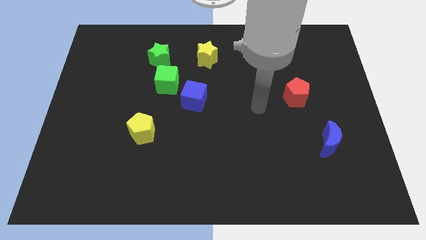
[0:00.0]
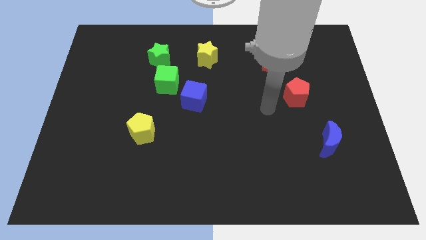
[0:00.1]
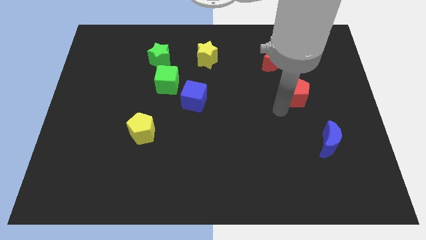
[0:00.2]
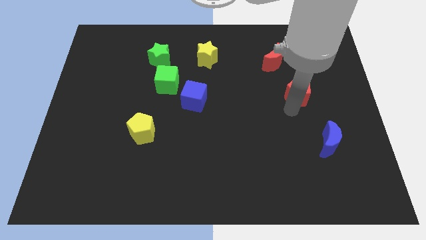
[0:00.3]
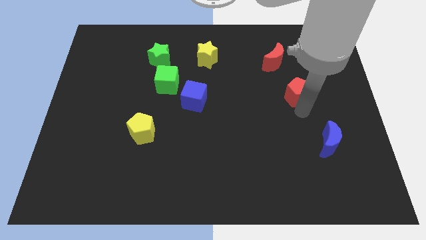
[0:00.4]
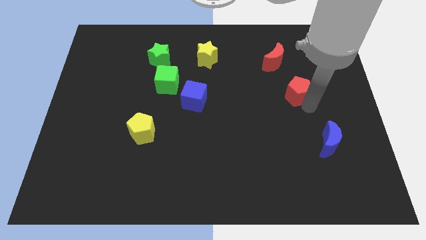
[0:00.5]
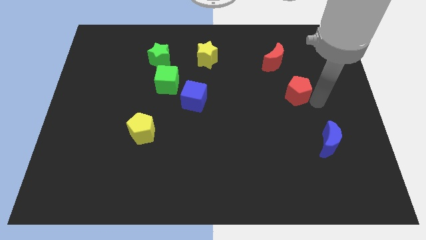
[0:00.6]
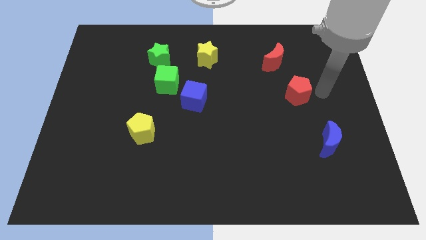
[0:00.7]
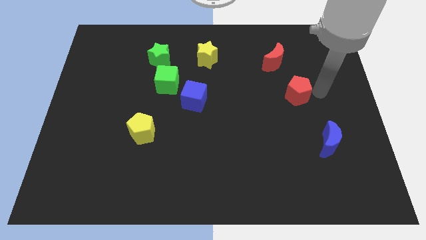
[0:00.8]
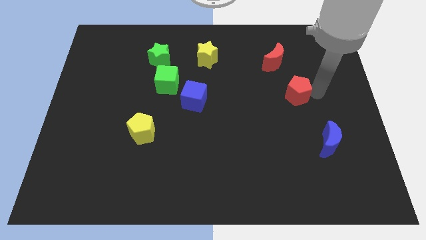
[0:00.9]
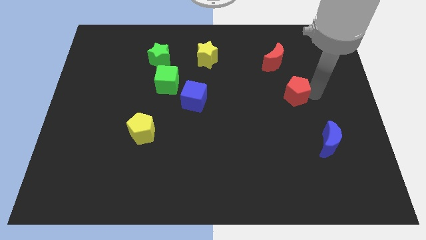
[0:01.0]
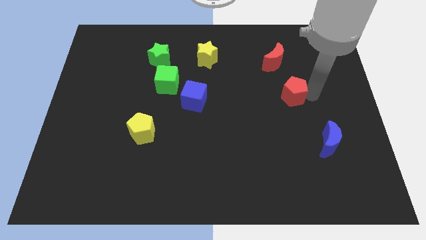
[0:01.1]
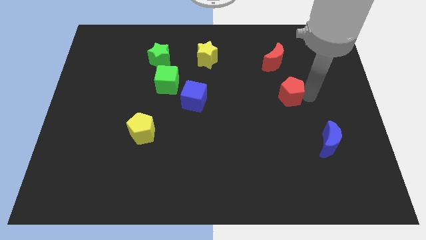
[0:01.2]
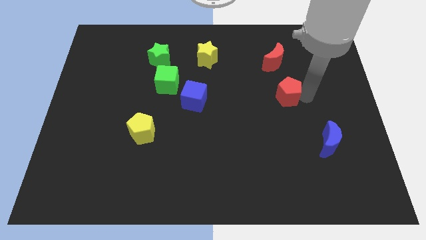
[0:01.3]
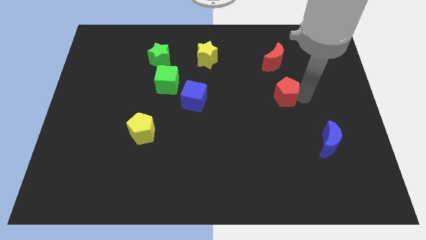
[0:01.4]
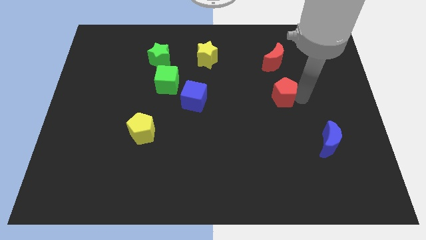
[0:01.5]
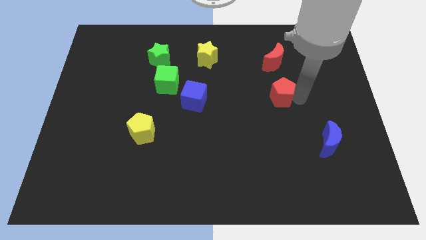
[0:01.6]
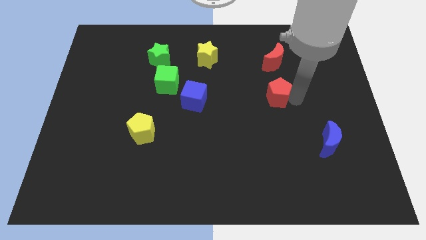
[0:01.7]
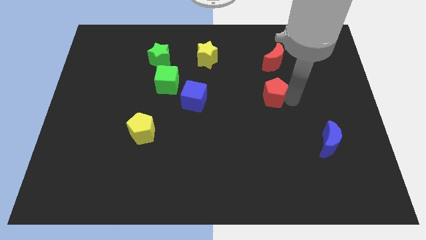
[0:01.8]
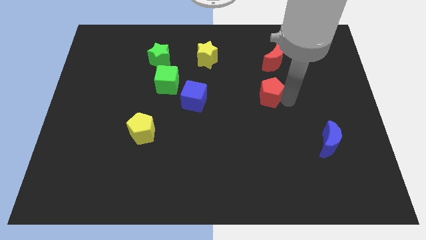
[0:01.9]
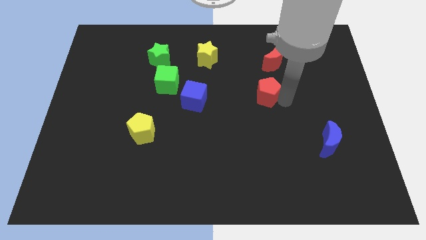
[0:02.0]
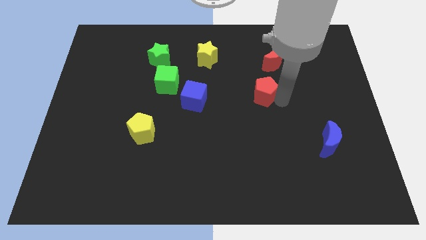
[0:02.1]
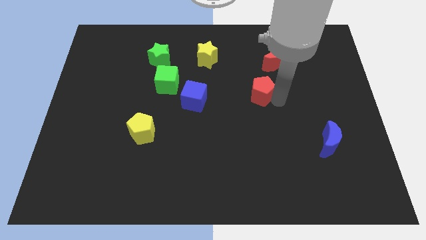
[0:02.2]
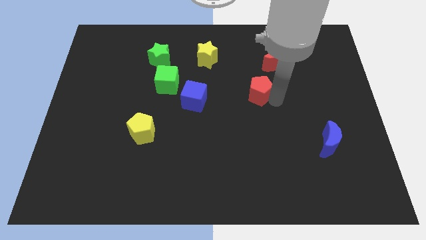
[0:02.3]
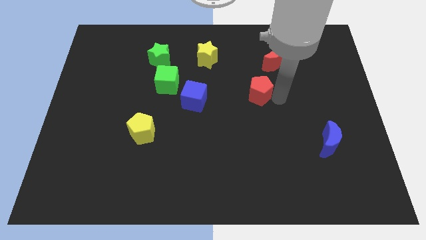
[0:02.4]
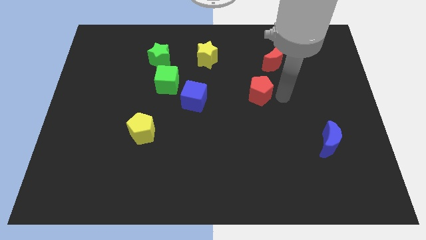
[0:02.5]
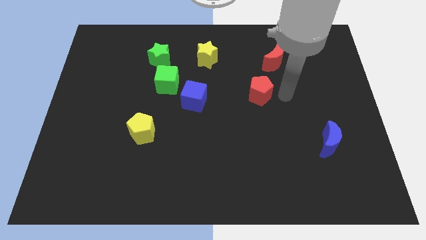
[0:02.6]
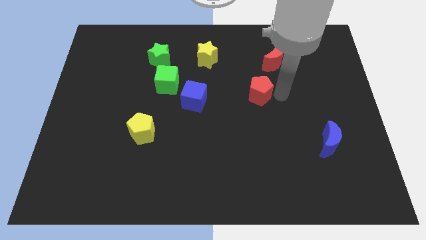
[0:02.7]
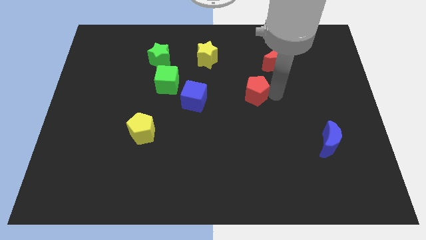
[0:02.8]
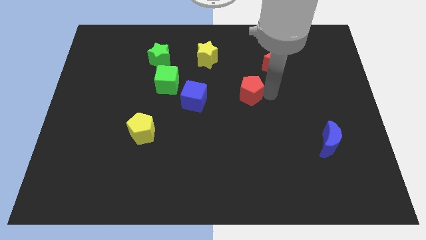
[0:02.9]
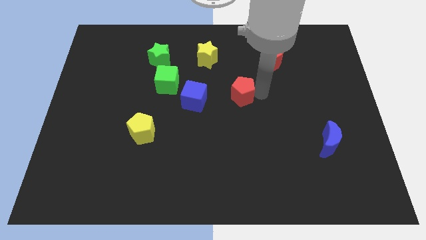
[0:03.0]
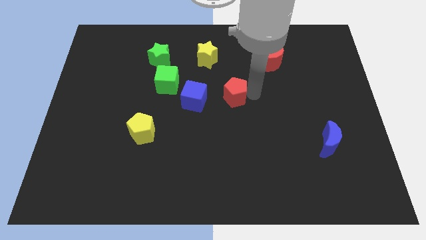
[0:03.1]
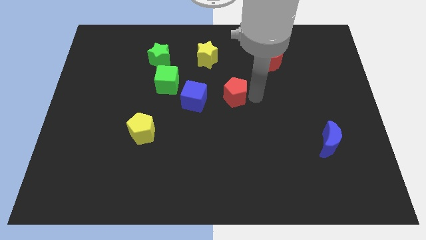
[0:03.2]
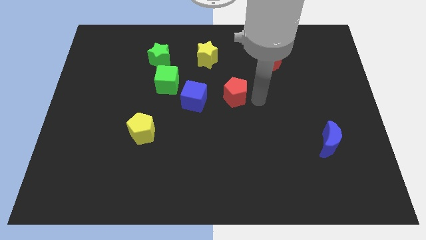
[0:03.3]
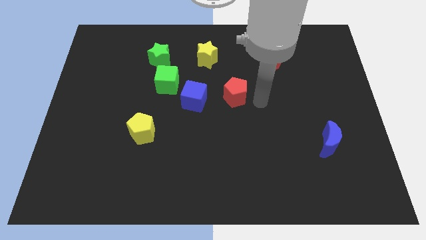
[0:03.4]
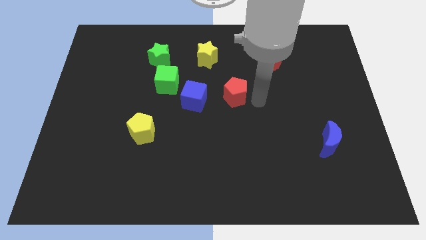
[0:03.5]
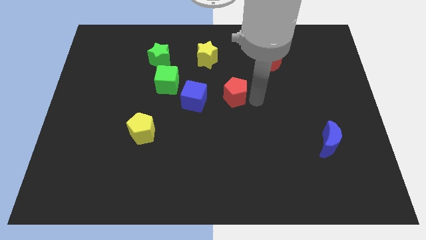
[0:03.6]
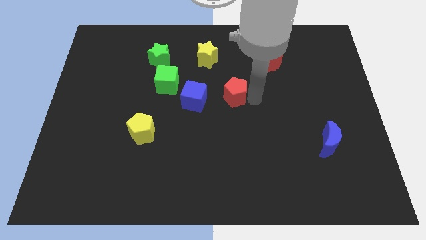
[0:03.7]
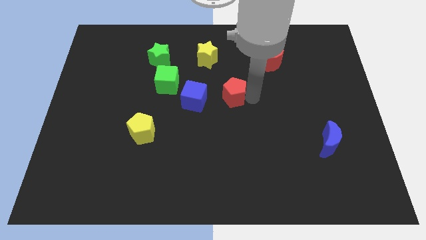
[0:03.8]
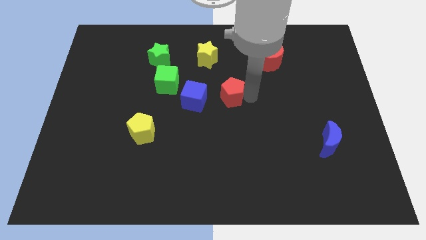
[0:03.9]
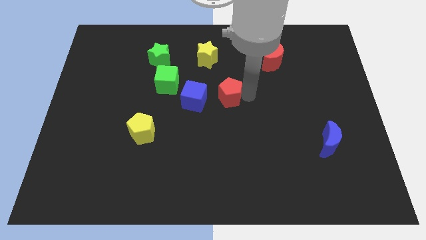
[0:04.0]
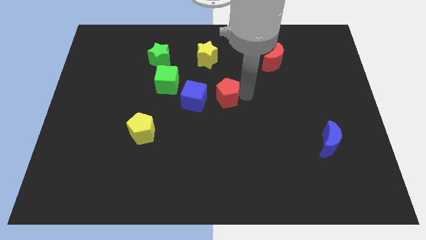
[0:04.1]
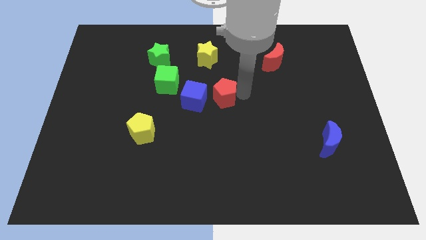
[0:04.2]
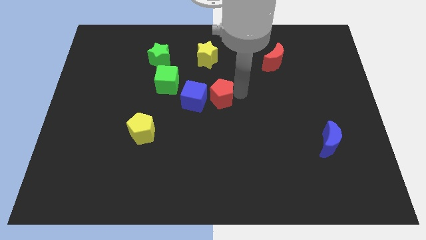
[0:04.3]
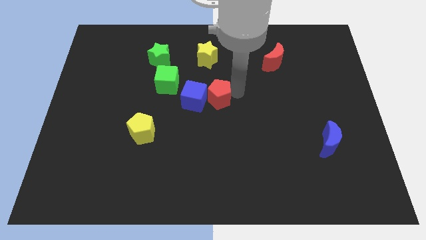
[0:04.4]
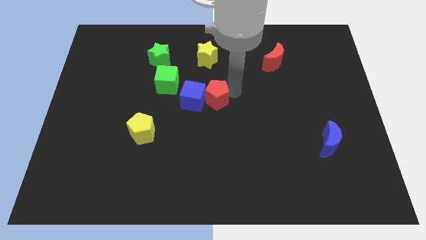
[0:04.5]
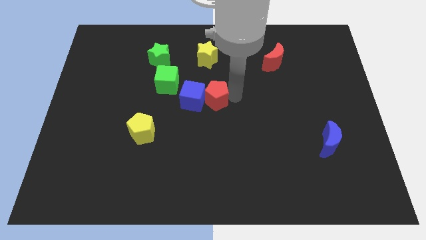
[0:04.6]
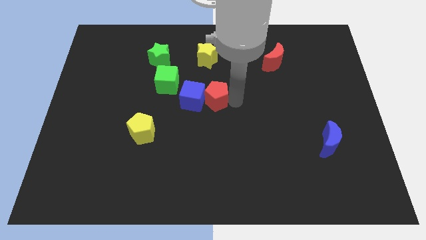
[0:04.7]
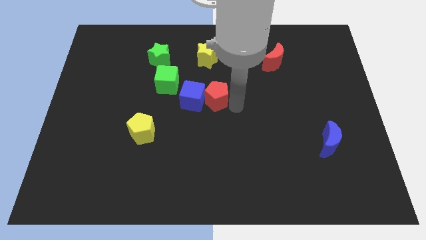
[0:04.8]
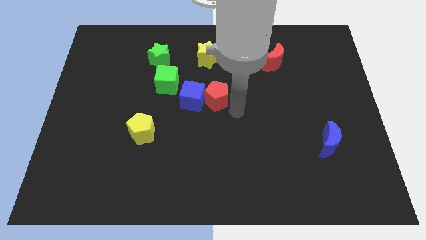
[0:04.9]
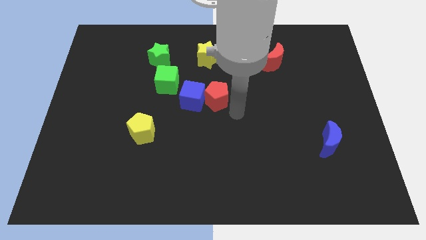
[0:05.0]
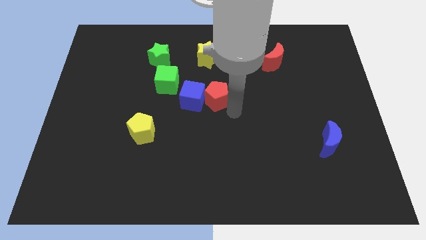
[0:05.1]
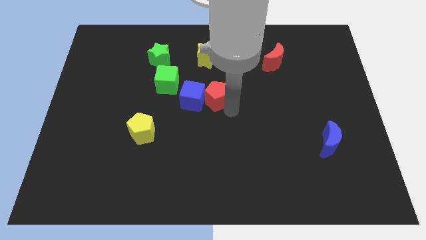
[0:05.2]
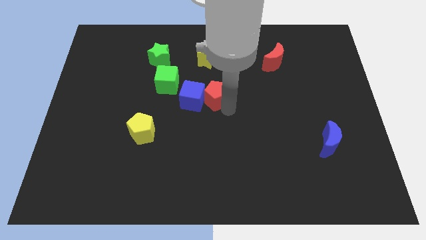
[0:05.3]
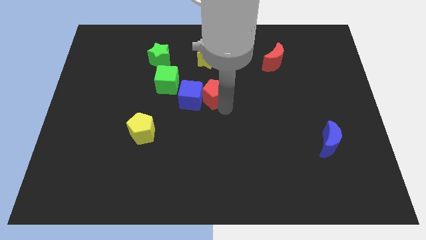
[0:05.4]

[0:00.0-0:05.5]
move the red pentagon to the left

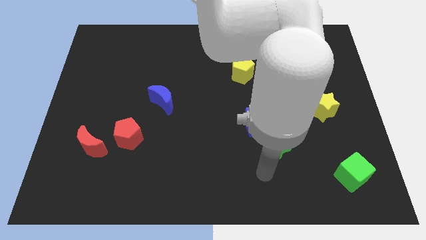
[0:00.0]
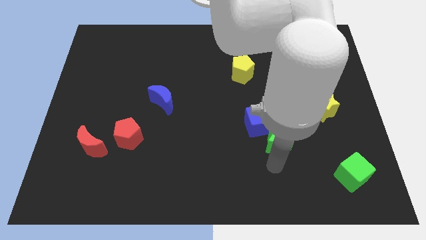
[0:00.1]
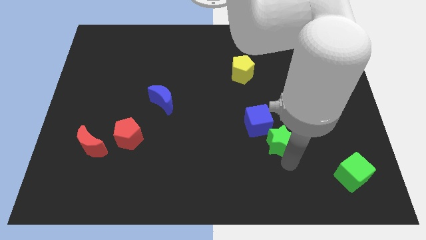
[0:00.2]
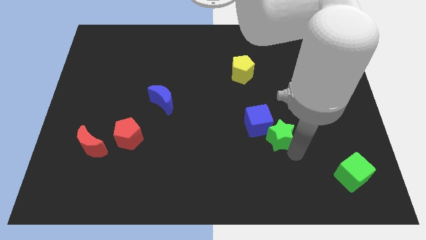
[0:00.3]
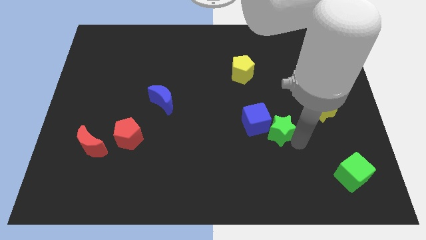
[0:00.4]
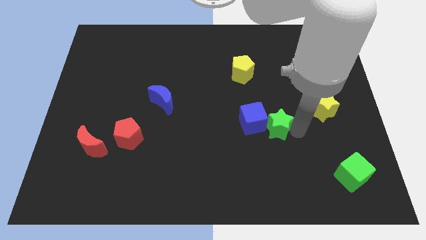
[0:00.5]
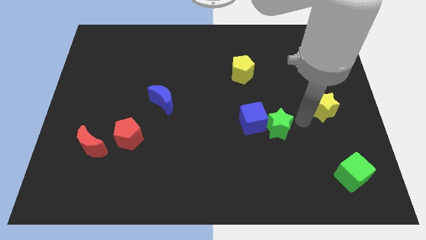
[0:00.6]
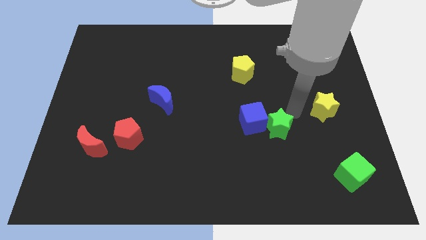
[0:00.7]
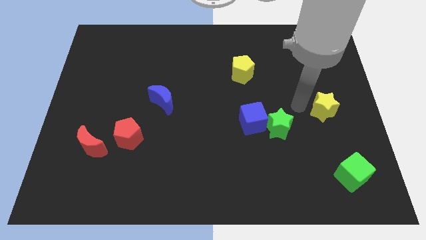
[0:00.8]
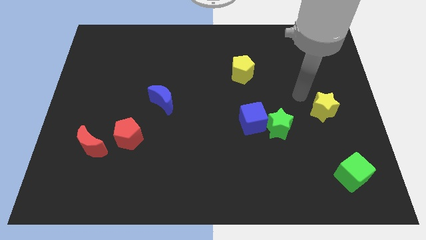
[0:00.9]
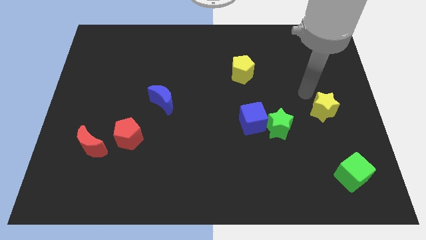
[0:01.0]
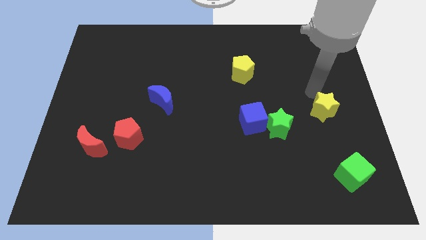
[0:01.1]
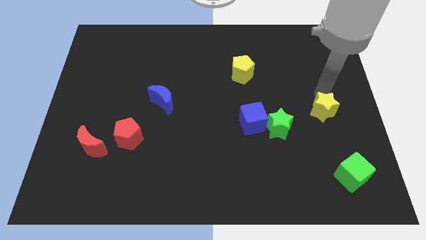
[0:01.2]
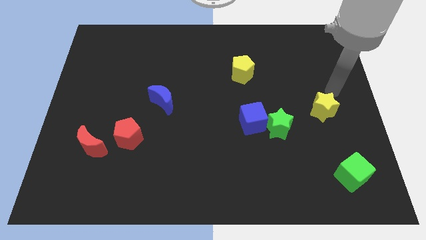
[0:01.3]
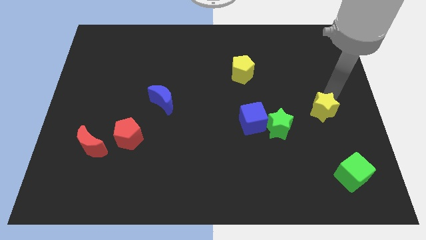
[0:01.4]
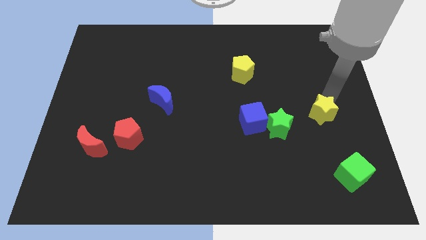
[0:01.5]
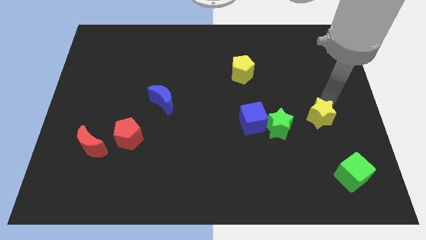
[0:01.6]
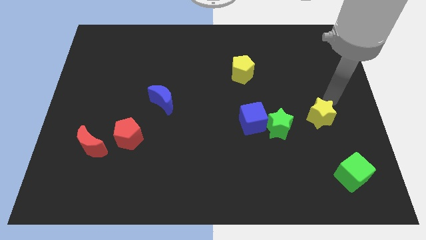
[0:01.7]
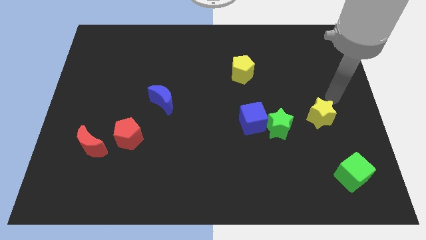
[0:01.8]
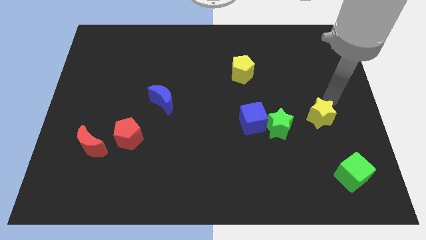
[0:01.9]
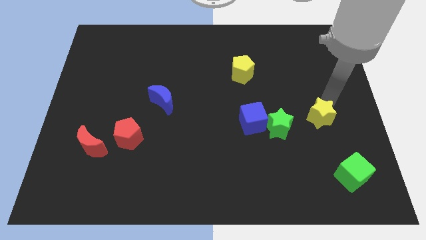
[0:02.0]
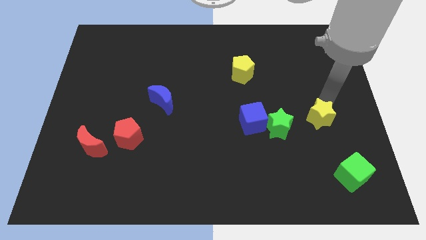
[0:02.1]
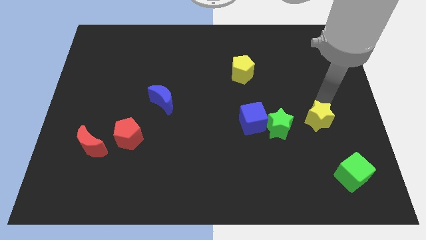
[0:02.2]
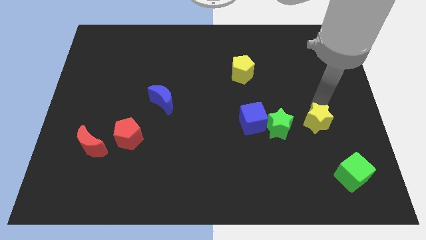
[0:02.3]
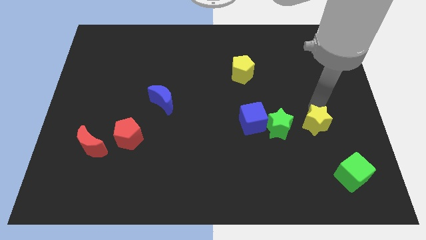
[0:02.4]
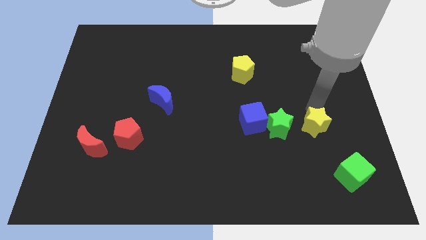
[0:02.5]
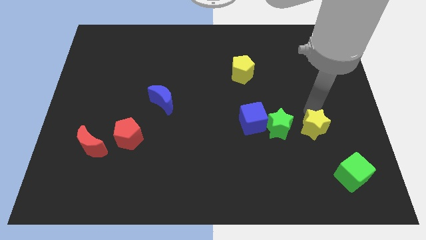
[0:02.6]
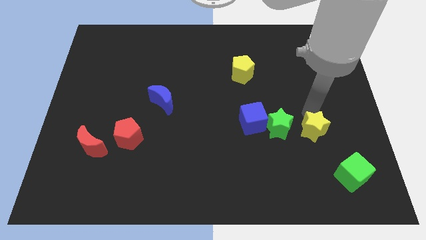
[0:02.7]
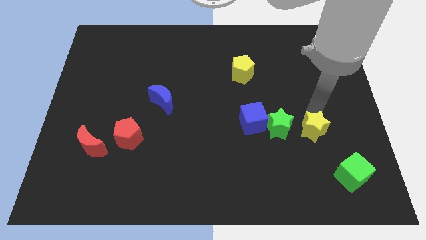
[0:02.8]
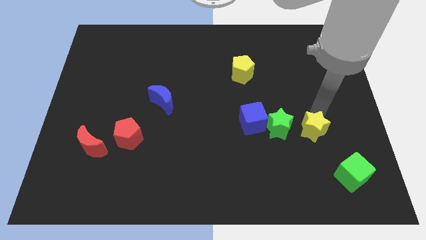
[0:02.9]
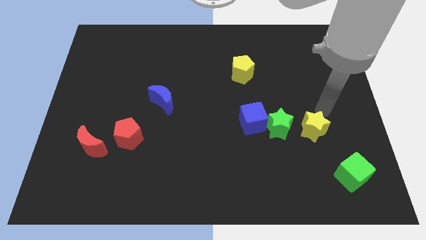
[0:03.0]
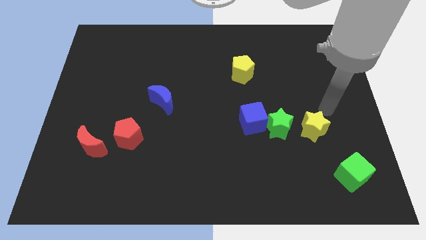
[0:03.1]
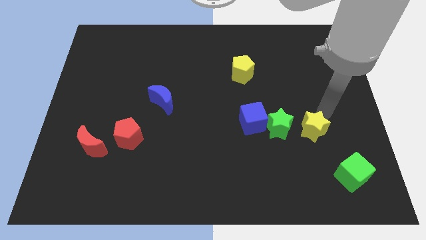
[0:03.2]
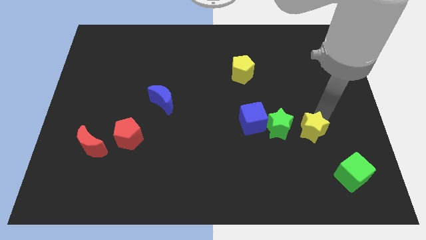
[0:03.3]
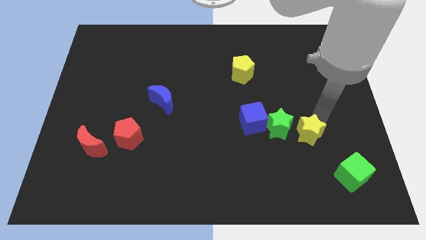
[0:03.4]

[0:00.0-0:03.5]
move the yellow star somewhat down and then to the left
